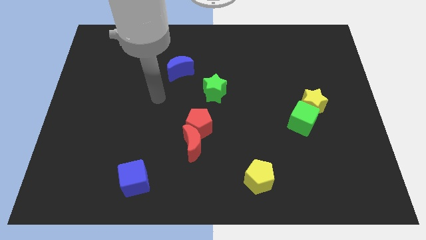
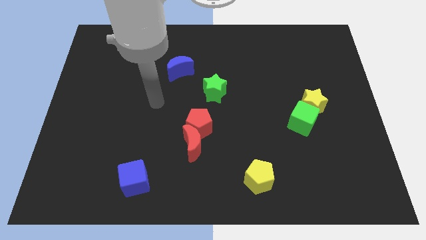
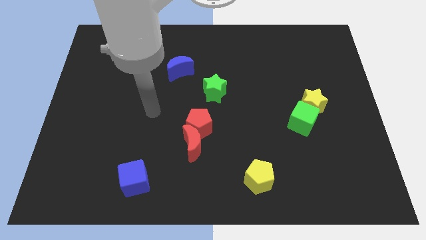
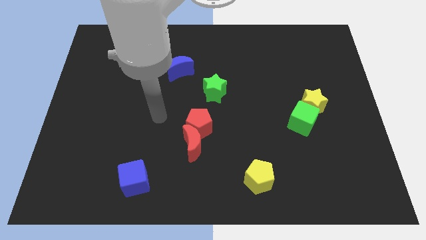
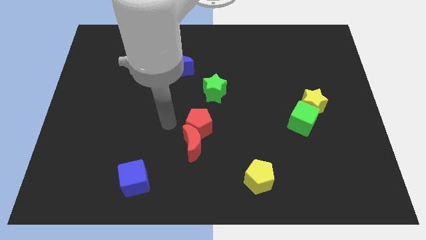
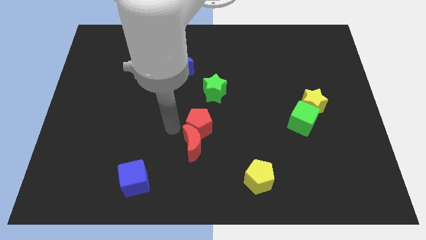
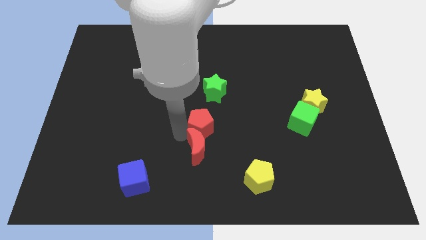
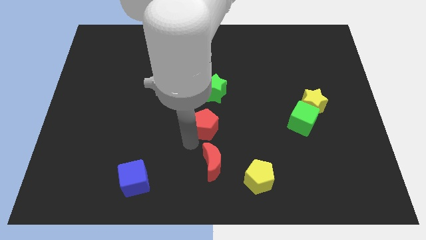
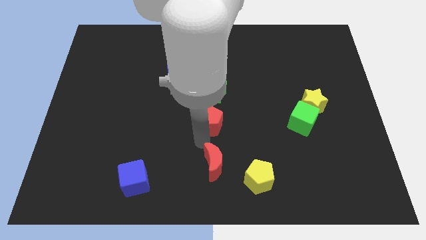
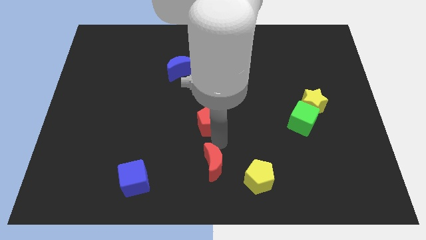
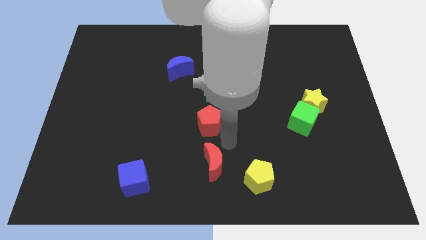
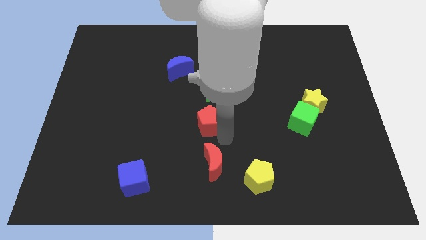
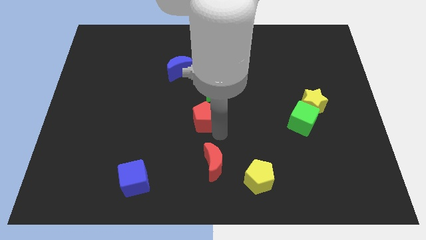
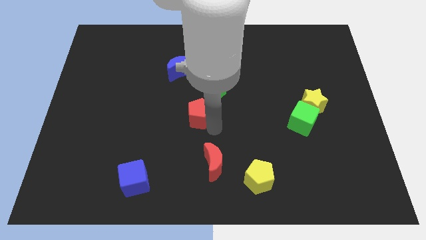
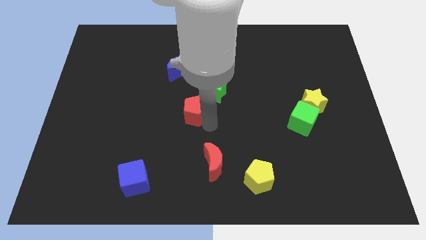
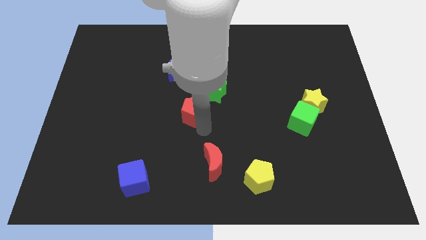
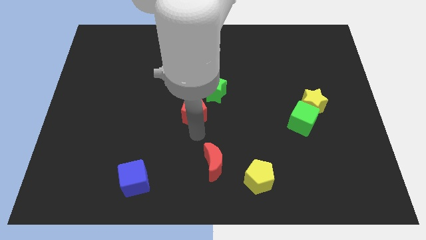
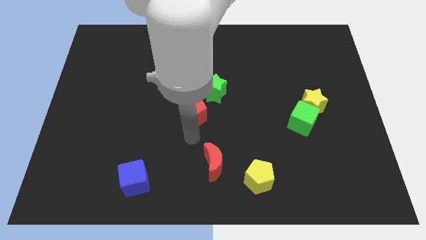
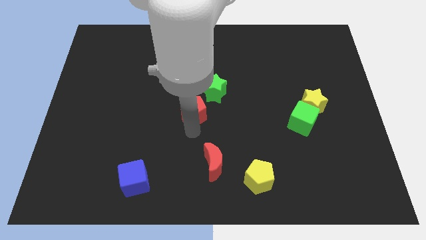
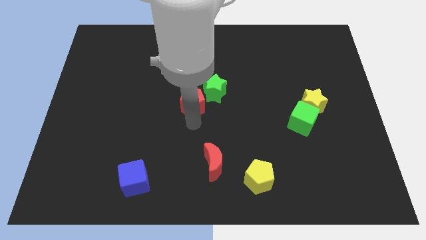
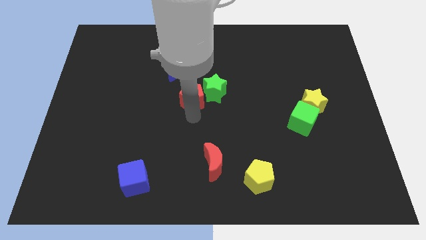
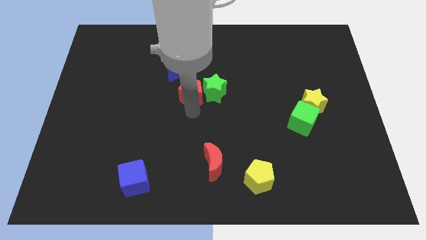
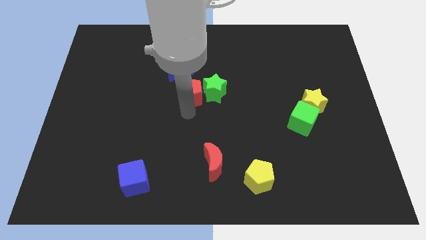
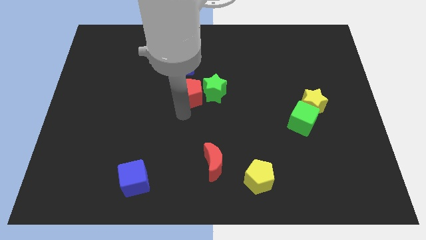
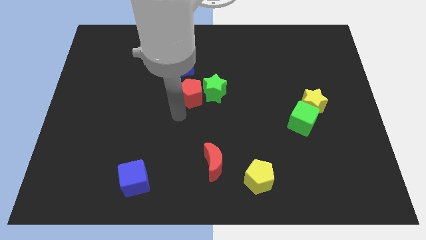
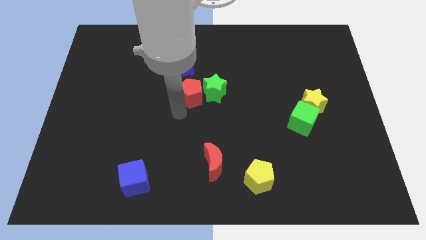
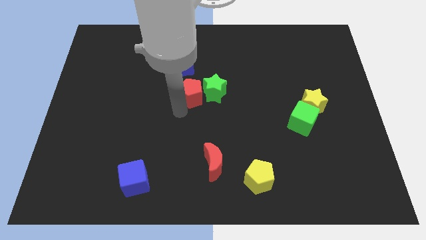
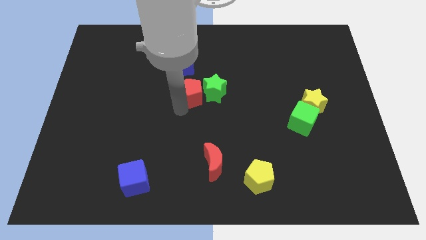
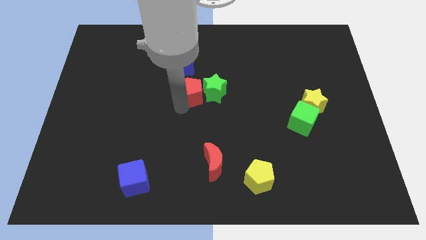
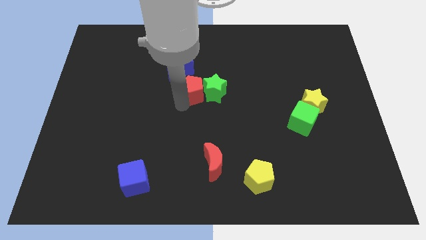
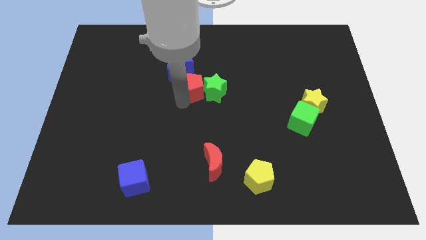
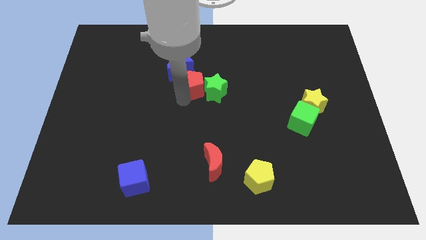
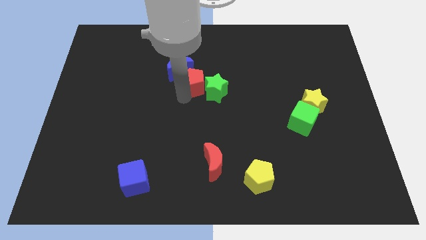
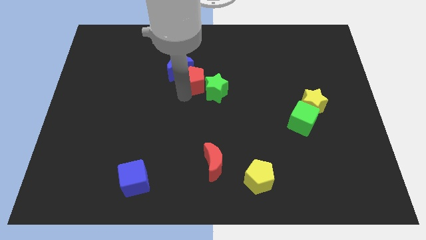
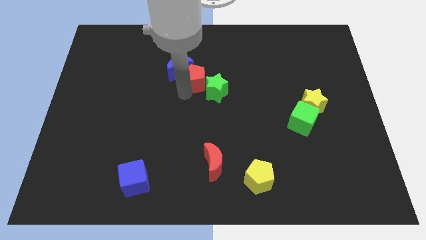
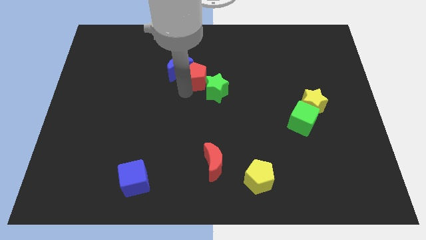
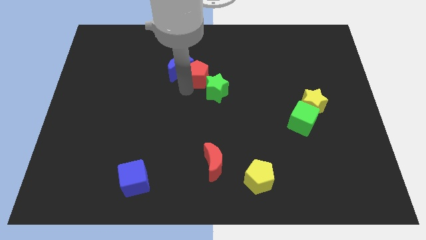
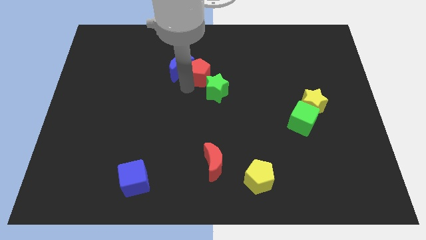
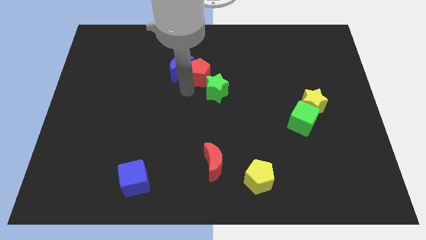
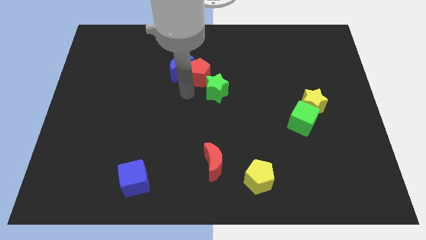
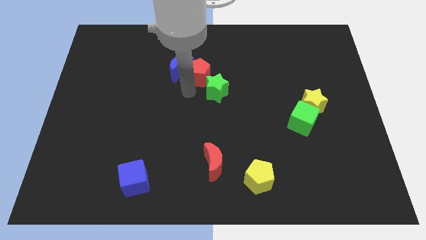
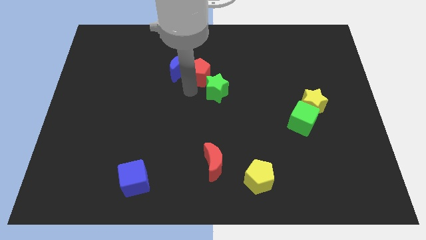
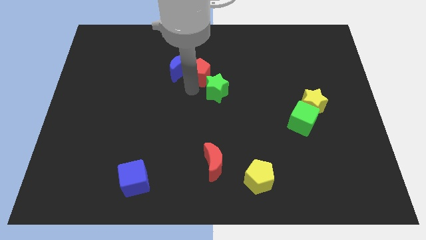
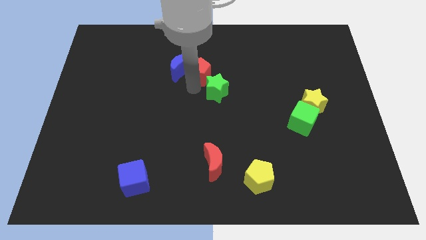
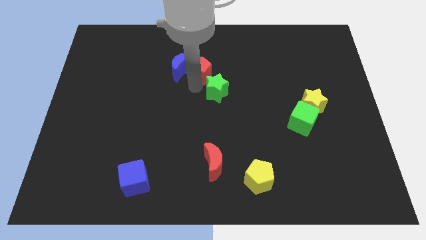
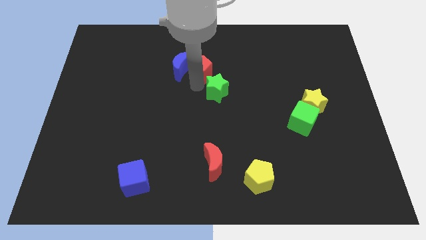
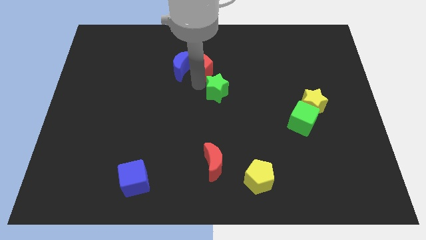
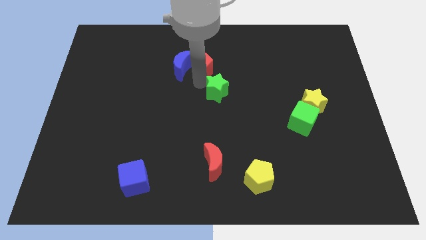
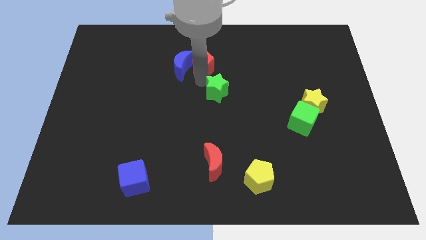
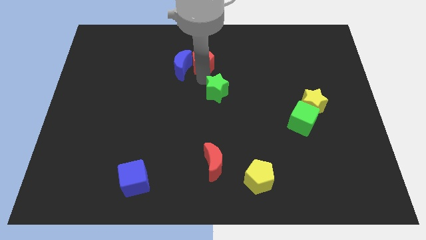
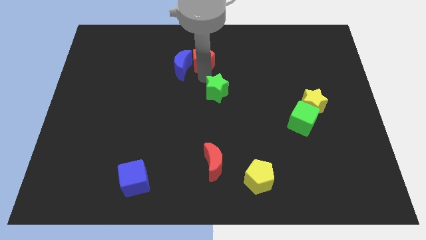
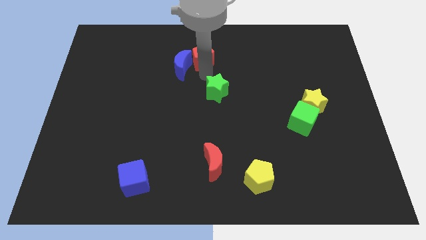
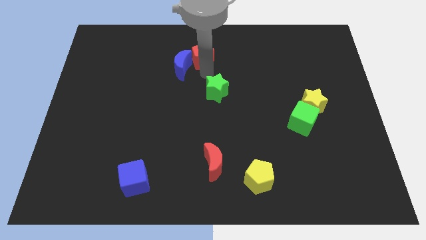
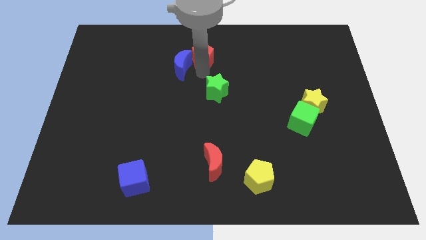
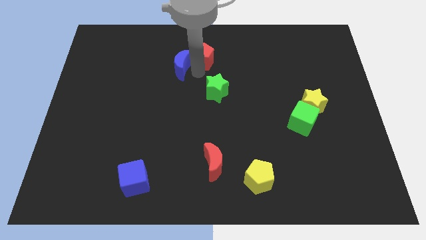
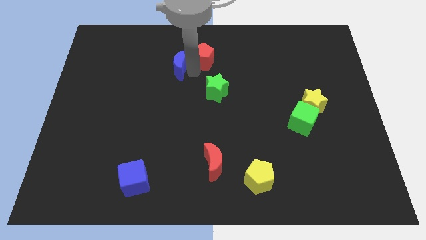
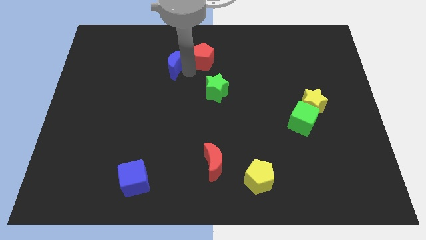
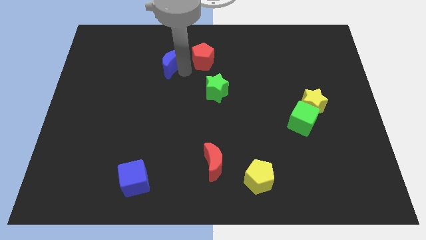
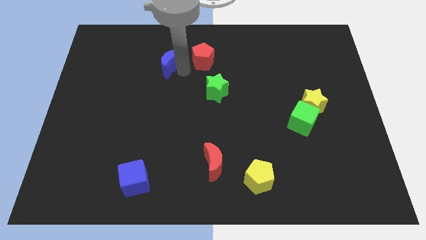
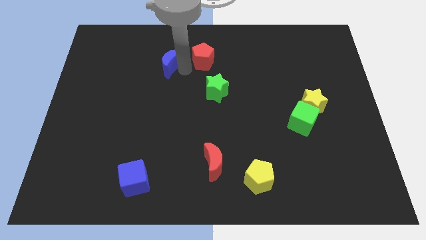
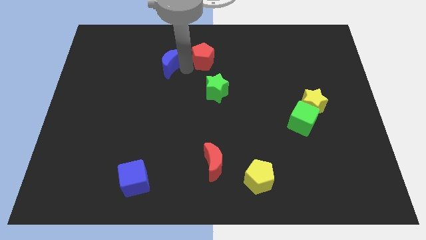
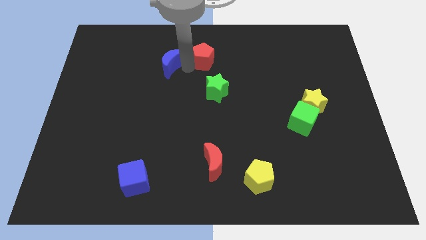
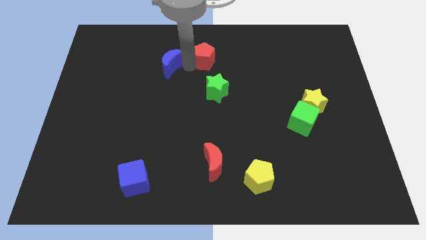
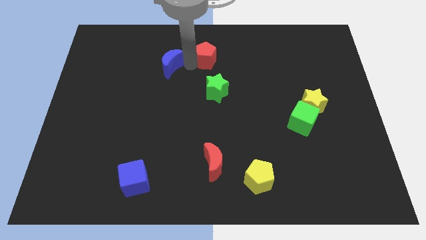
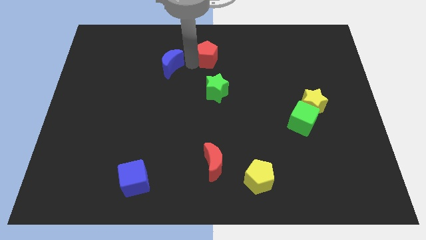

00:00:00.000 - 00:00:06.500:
move the red pentagon to the towards your base

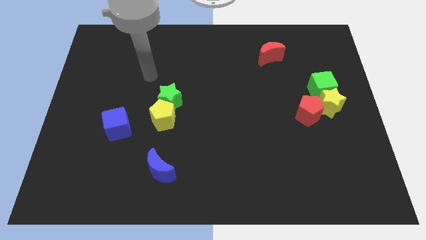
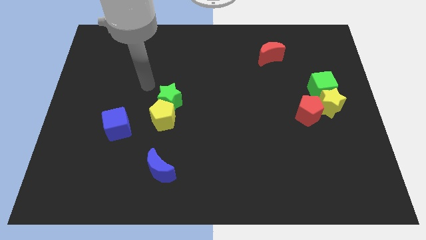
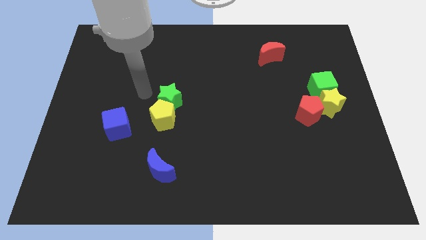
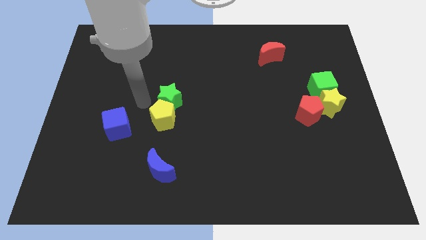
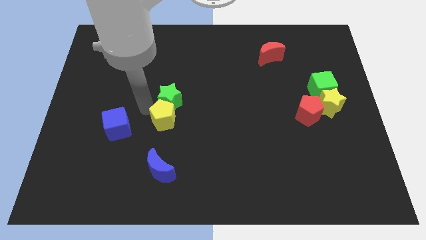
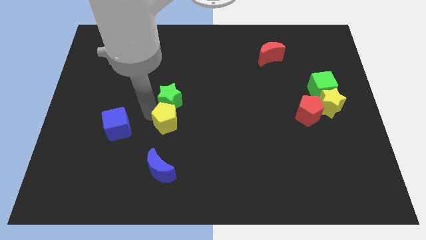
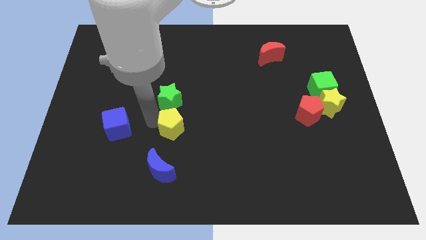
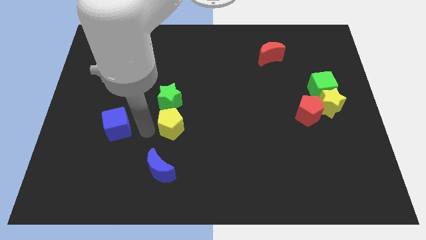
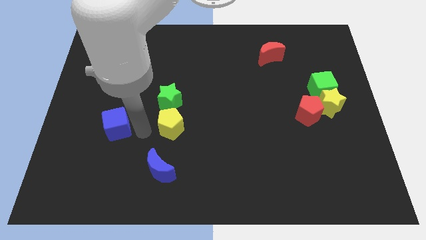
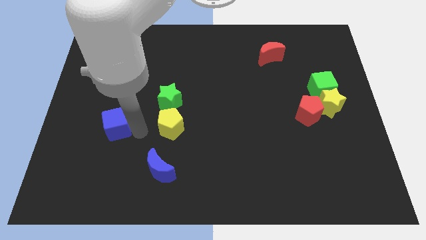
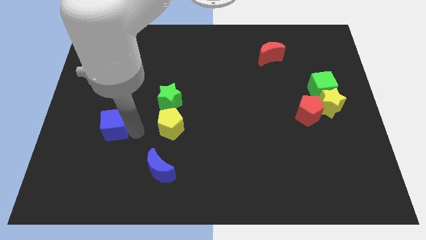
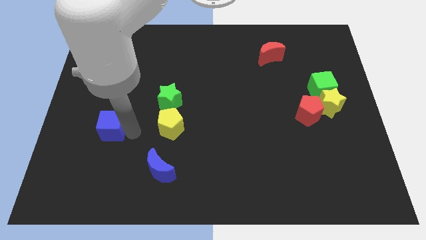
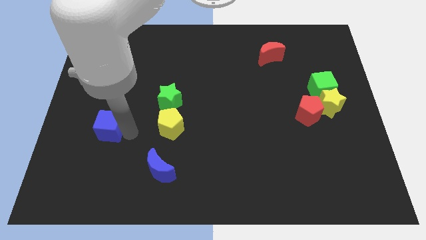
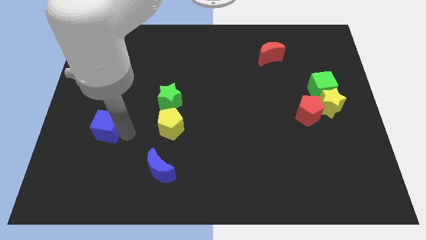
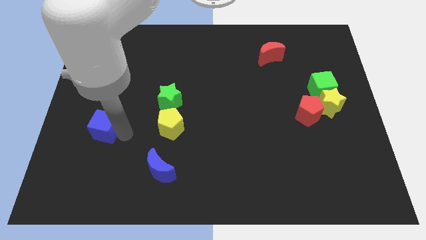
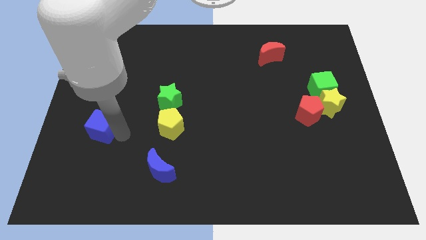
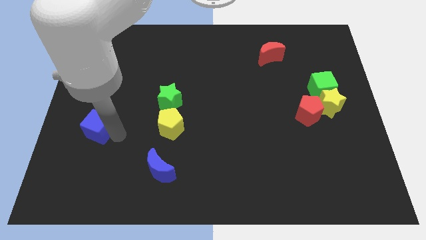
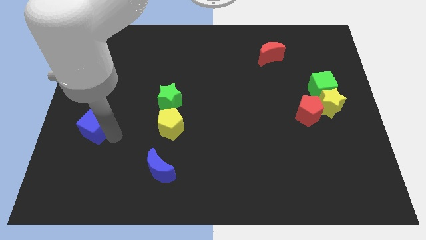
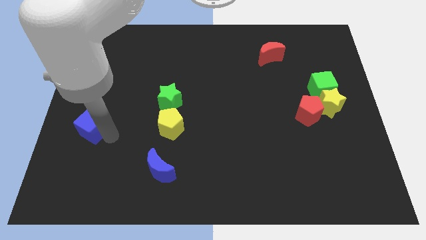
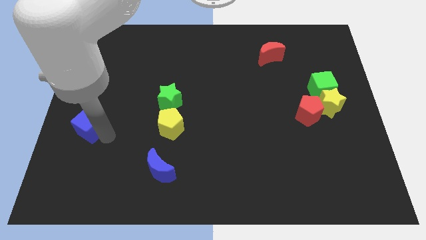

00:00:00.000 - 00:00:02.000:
slide the blue cube to the left side
